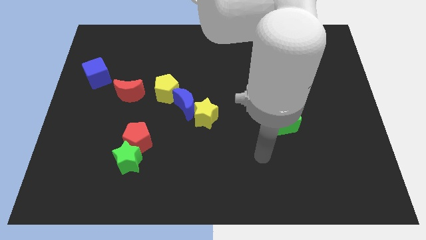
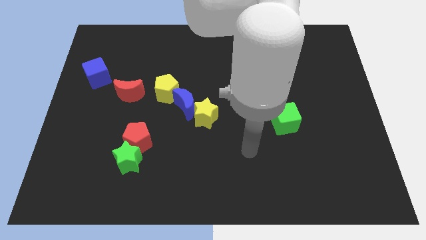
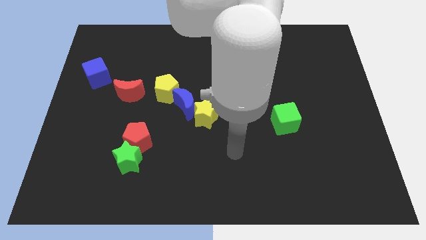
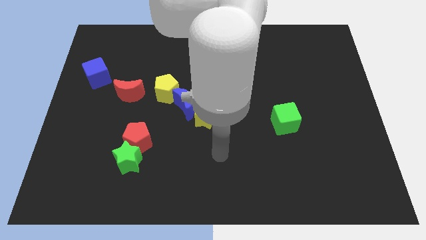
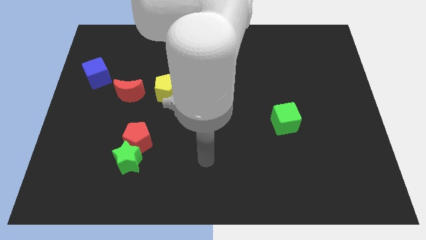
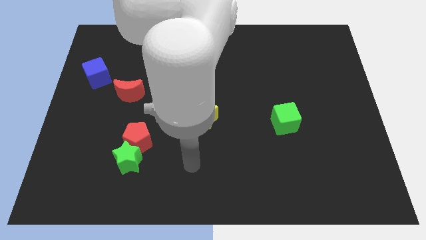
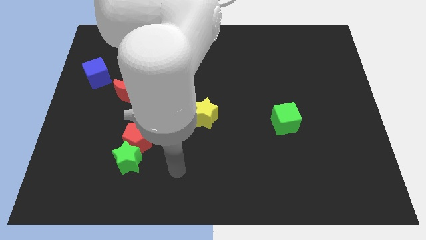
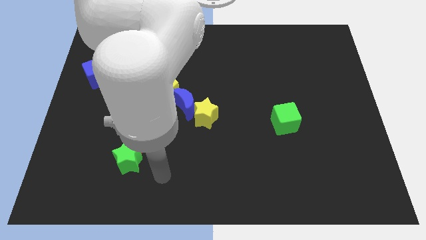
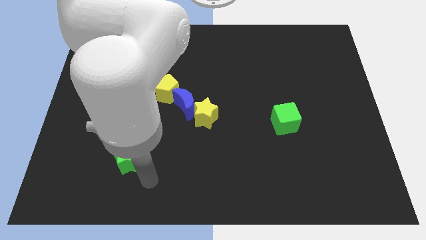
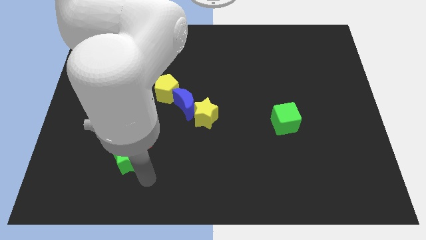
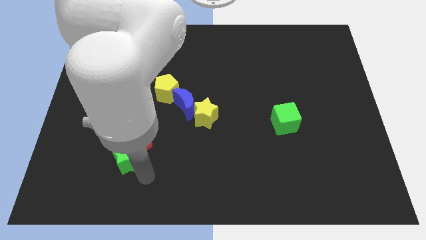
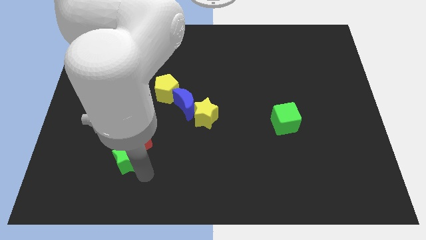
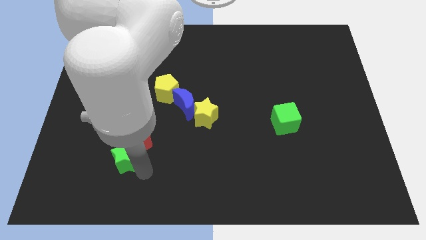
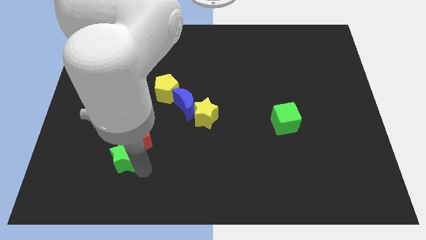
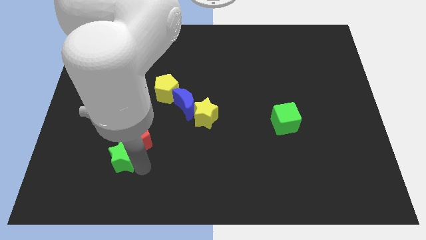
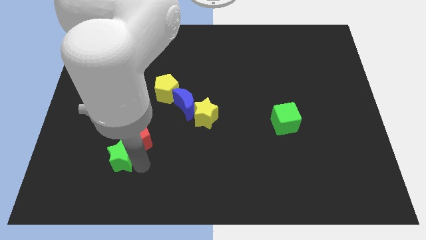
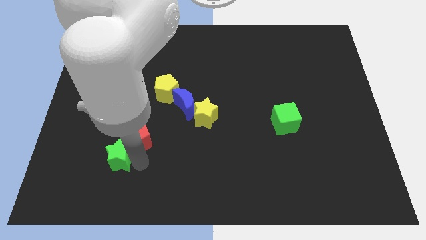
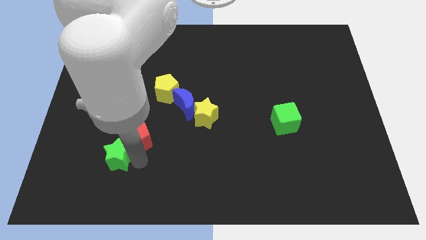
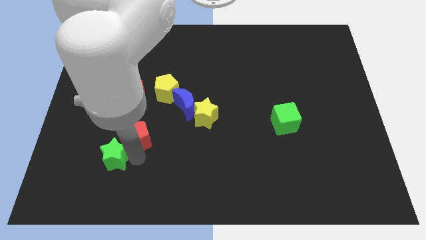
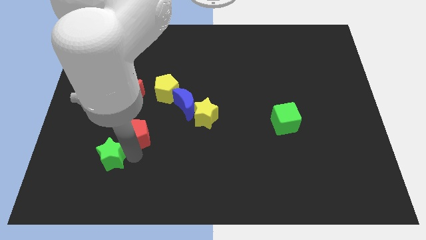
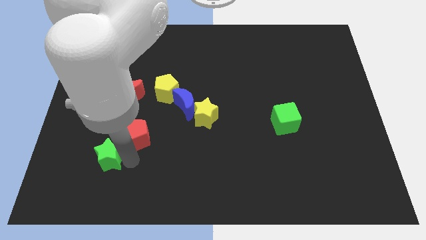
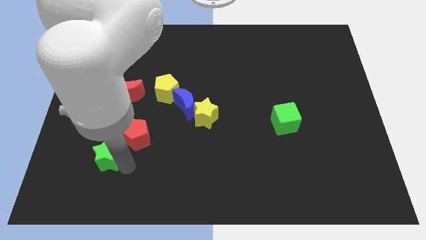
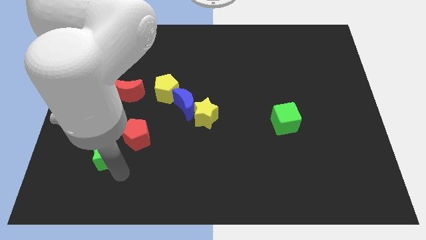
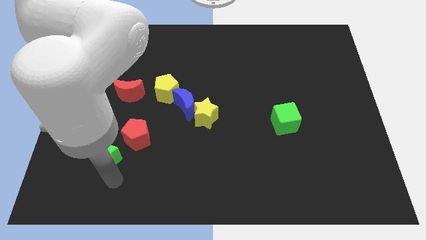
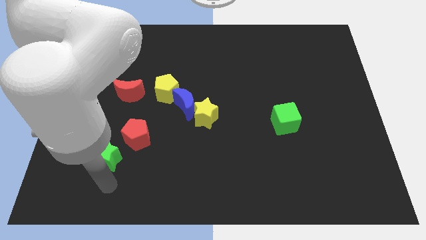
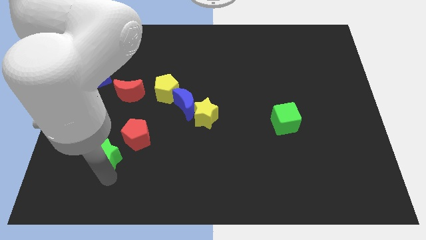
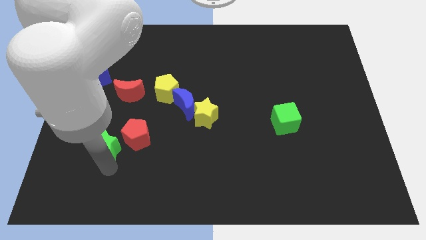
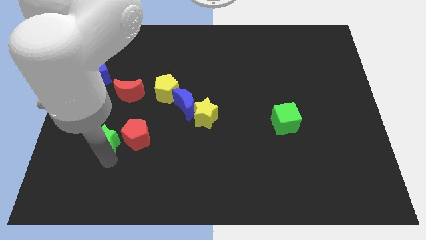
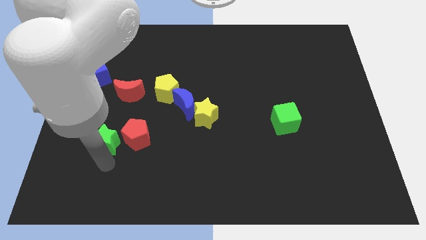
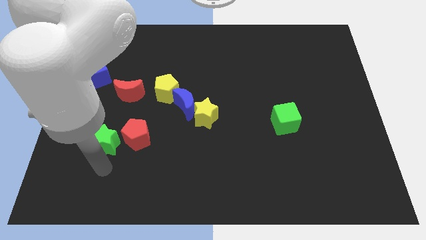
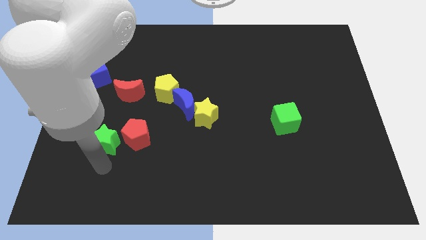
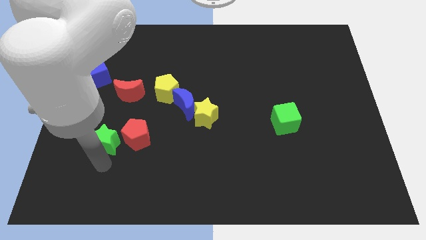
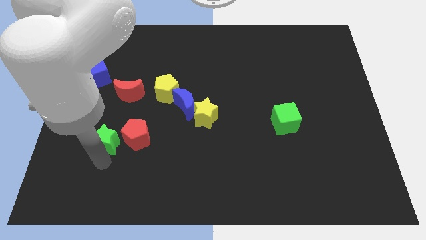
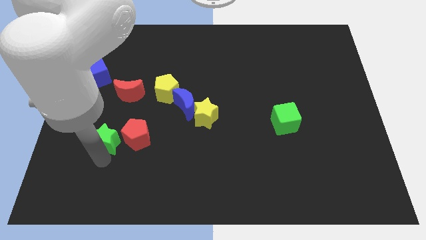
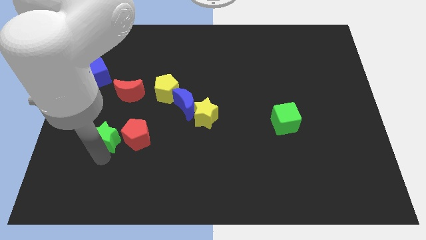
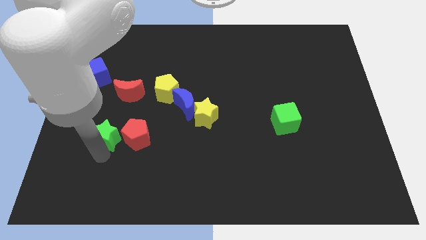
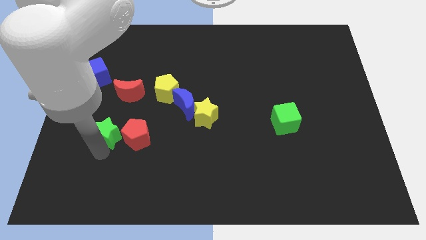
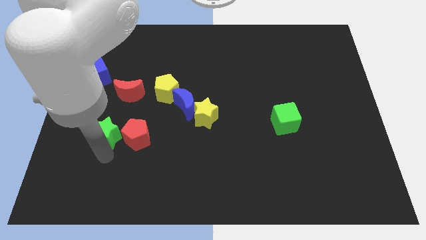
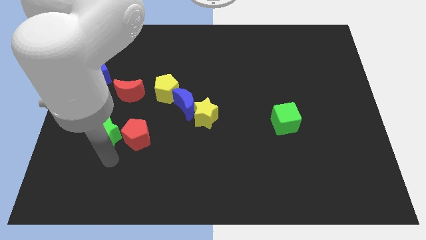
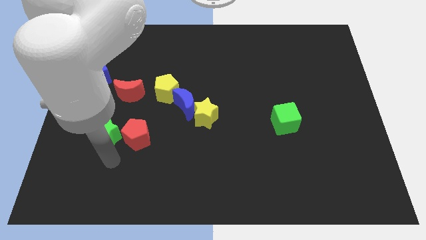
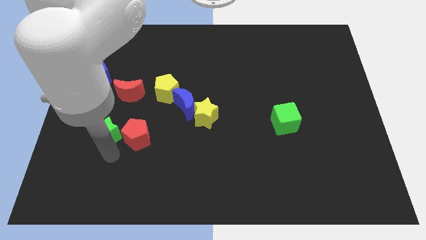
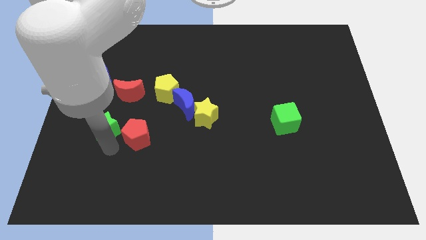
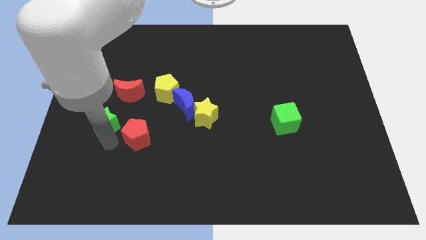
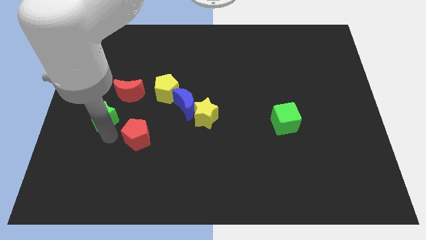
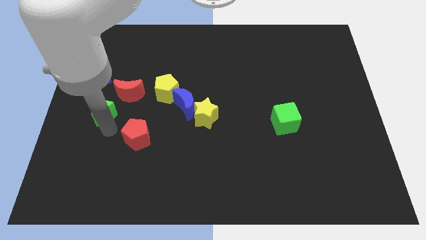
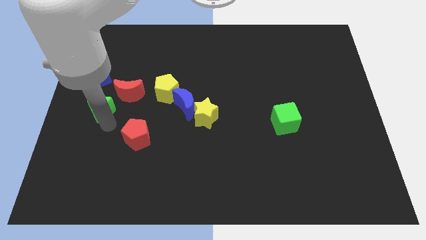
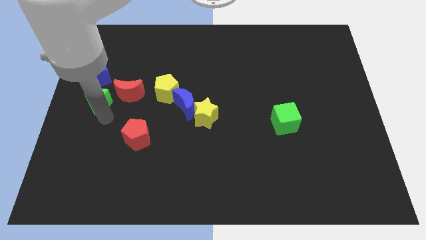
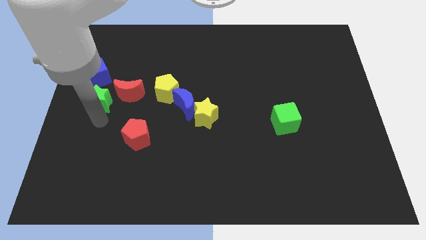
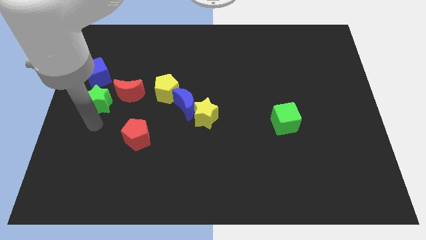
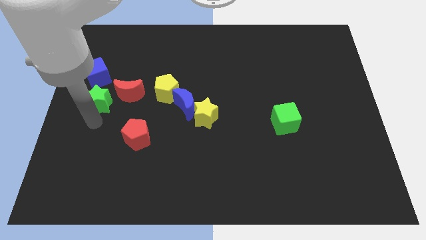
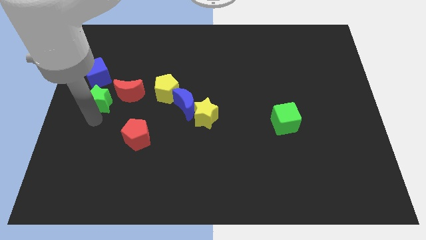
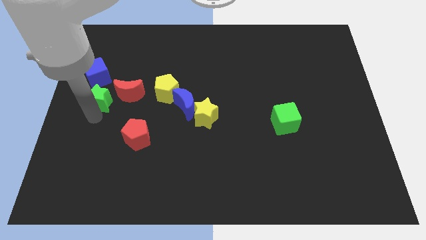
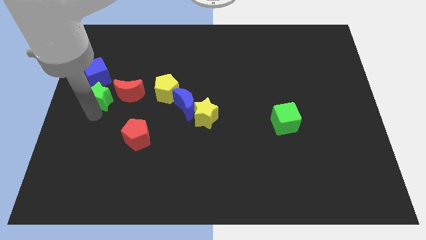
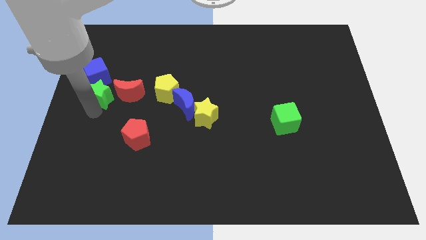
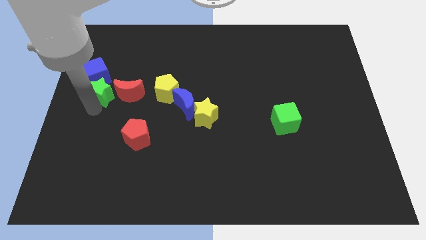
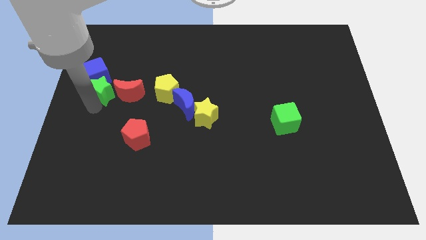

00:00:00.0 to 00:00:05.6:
put the green star next to the blue cube

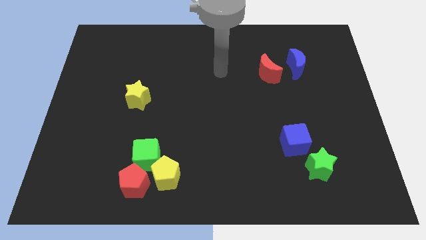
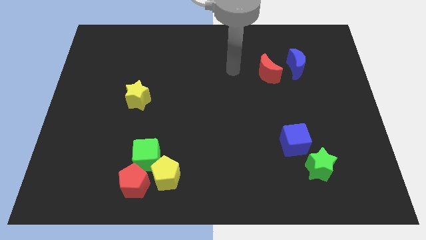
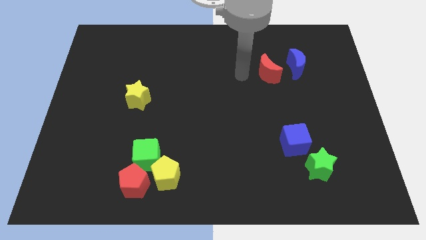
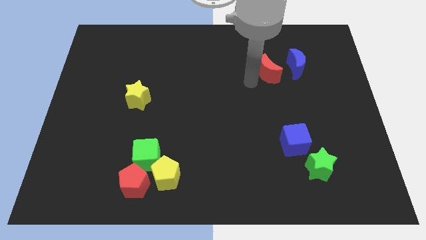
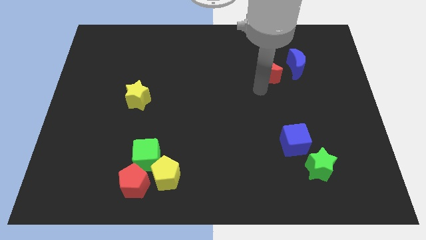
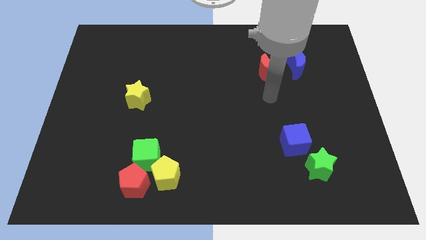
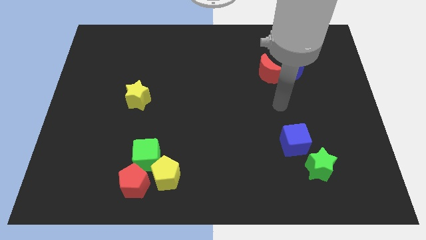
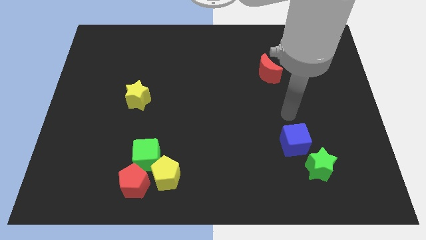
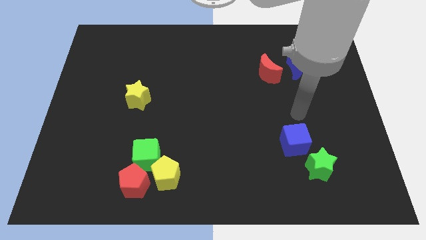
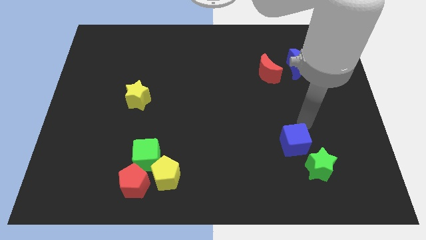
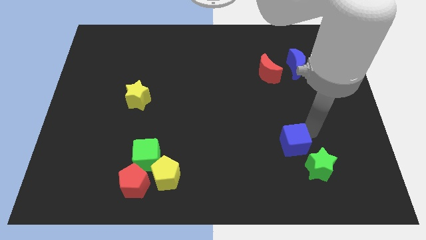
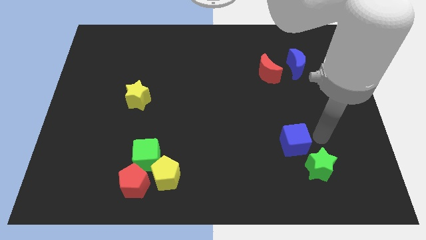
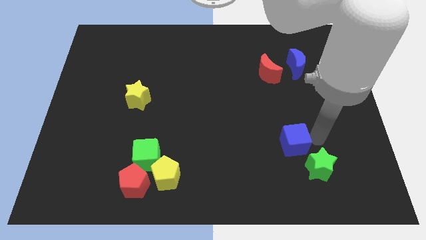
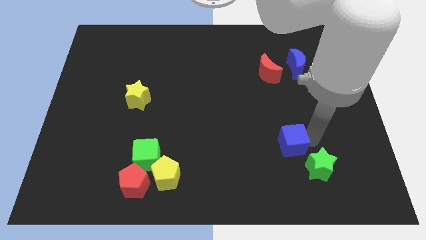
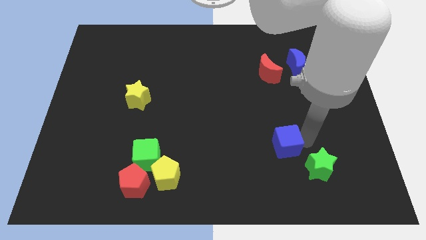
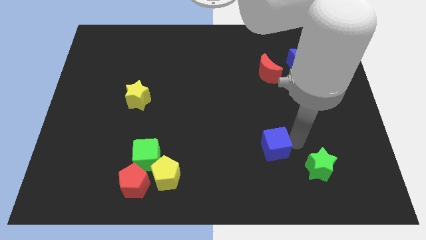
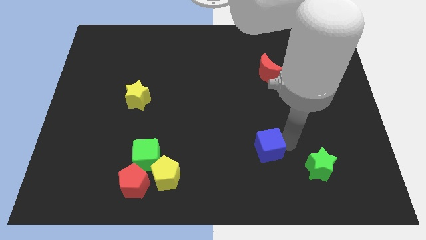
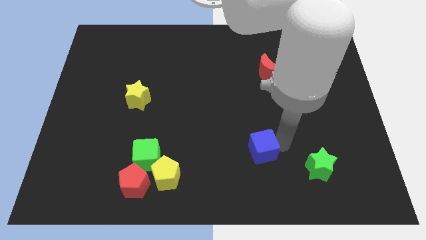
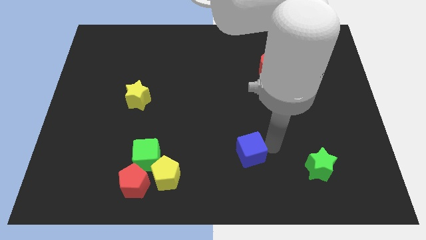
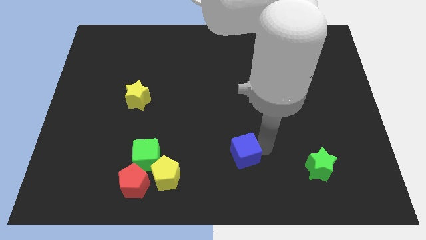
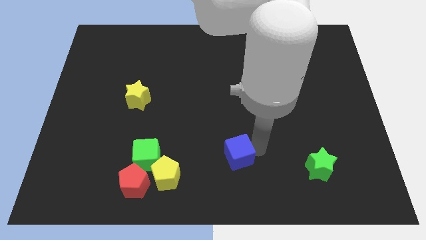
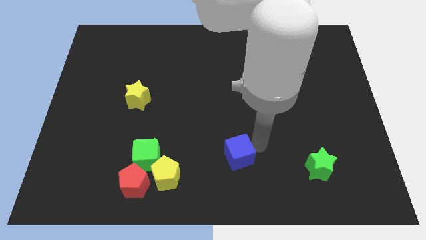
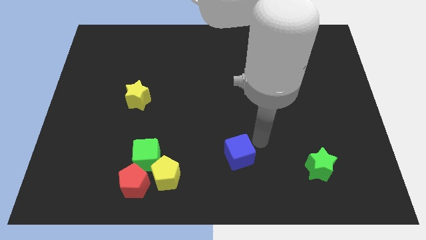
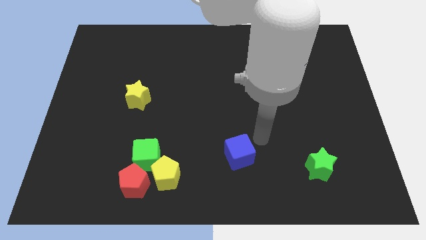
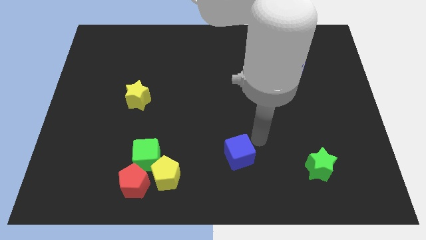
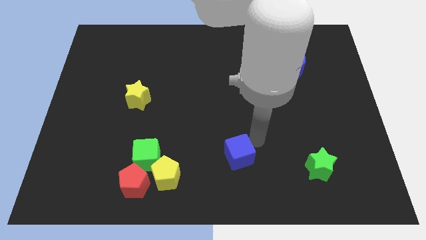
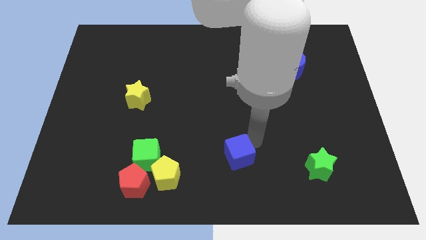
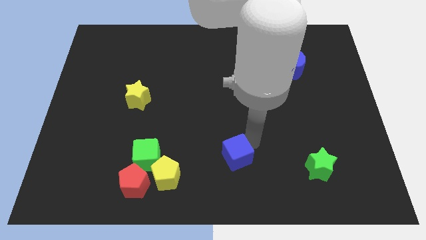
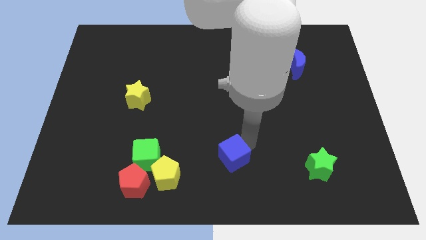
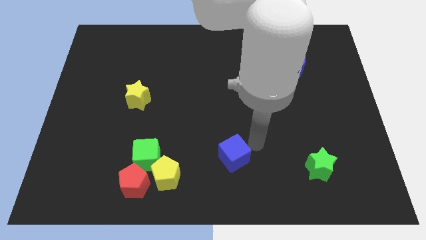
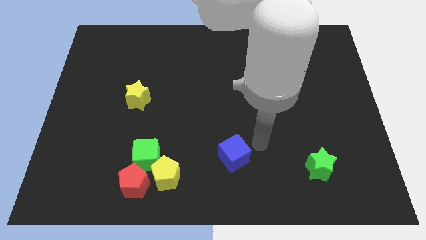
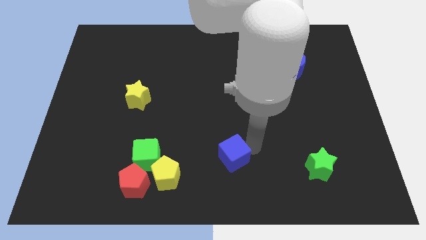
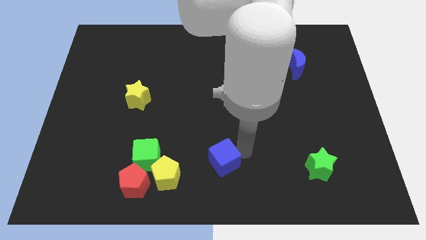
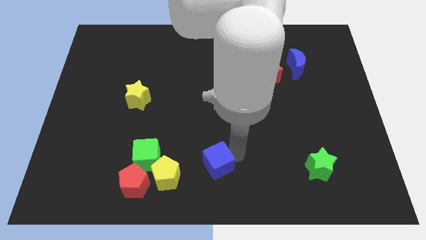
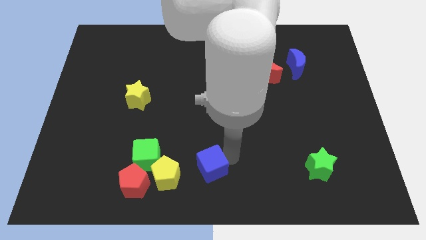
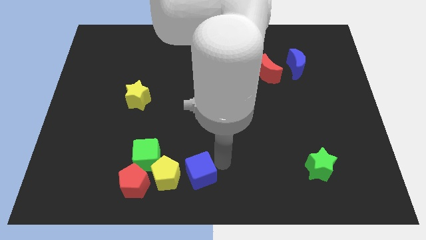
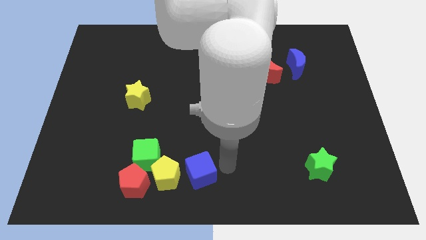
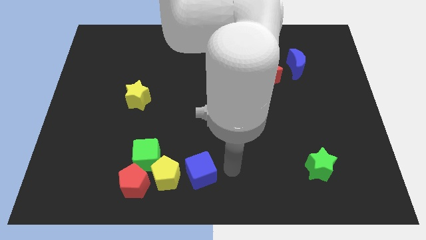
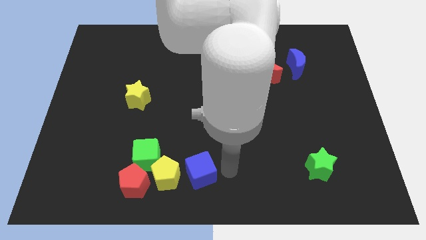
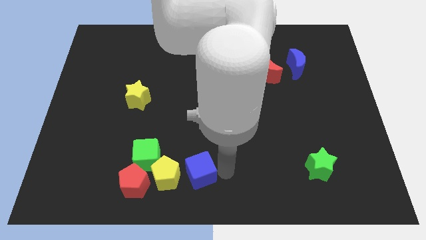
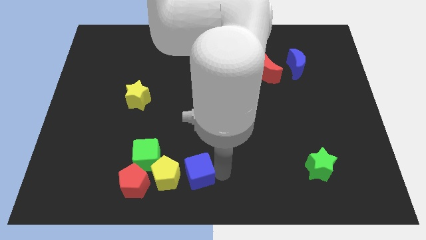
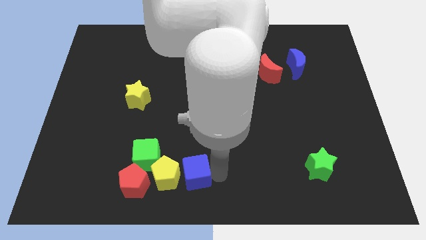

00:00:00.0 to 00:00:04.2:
slide the blue cube towards the yellow pentagon
